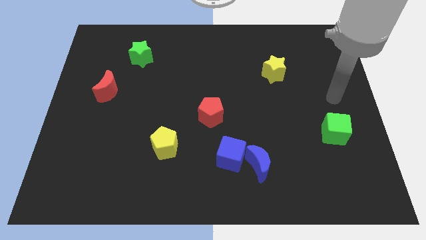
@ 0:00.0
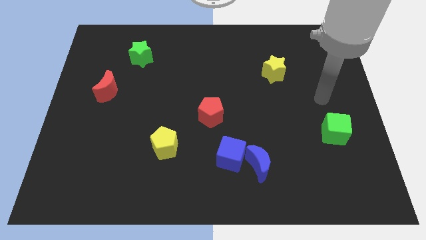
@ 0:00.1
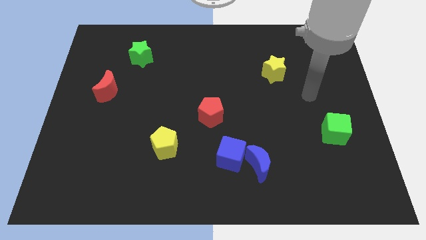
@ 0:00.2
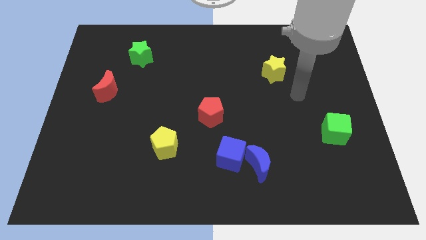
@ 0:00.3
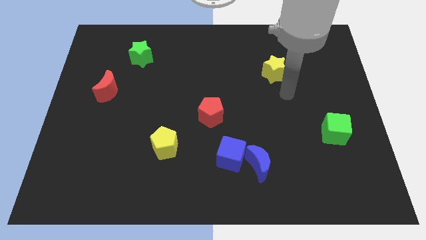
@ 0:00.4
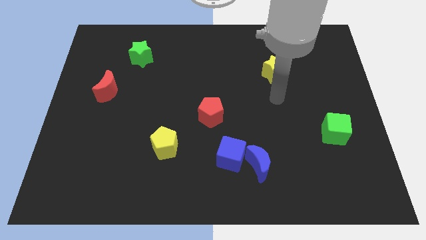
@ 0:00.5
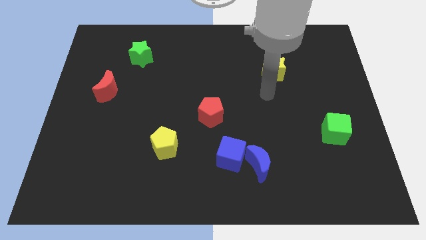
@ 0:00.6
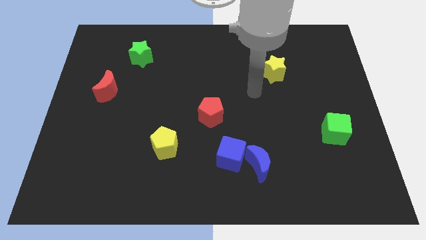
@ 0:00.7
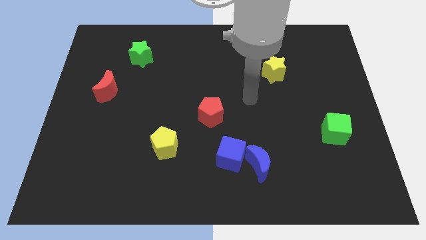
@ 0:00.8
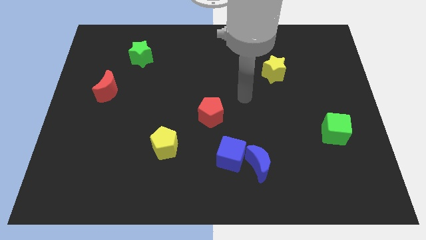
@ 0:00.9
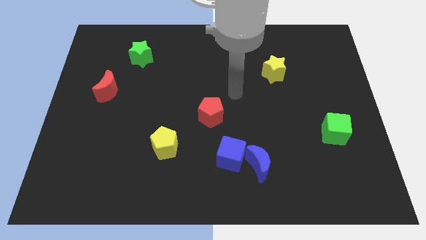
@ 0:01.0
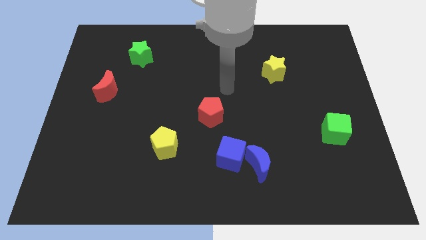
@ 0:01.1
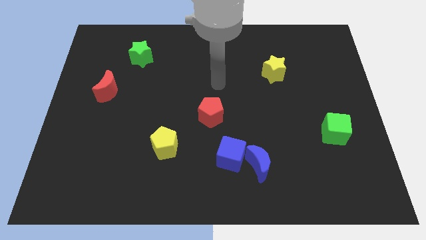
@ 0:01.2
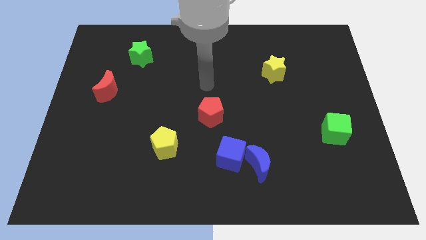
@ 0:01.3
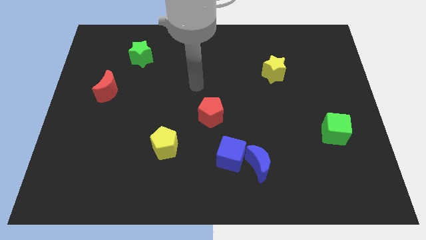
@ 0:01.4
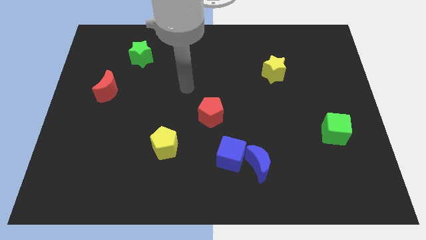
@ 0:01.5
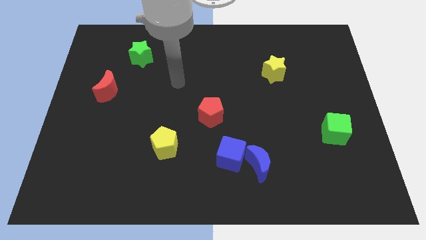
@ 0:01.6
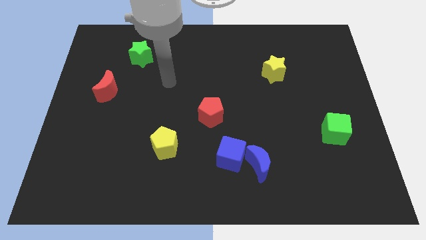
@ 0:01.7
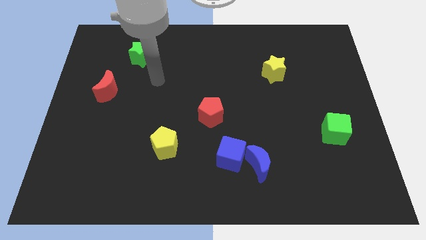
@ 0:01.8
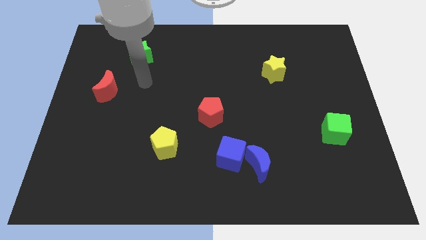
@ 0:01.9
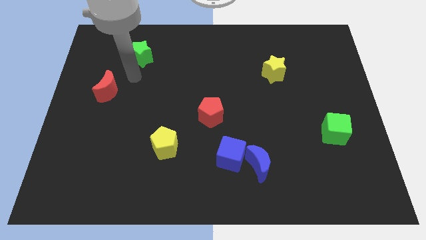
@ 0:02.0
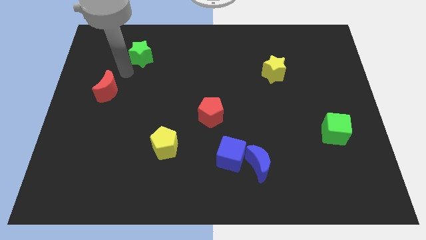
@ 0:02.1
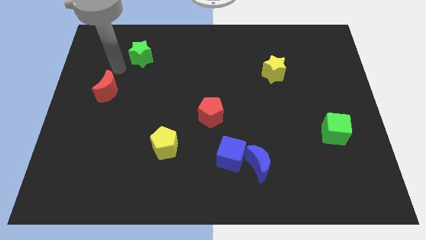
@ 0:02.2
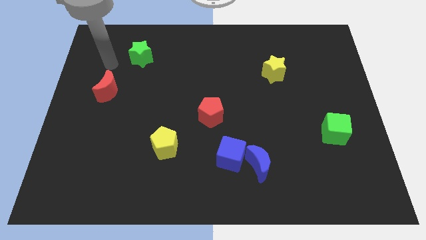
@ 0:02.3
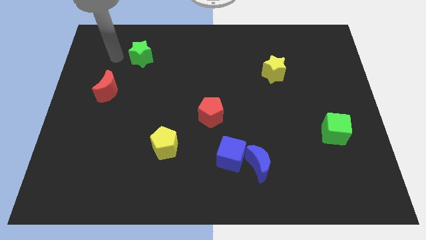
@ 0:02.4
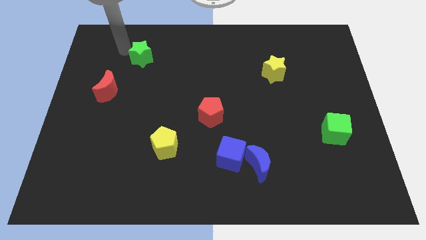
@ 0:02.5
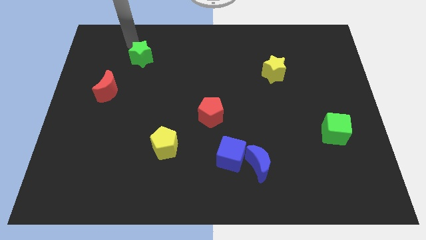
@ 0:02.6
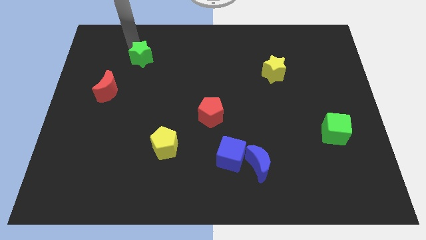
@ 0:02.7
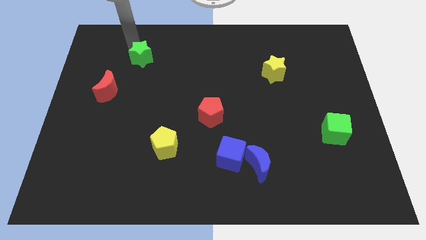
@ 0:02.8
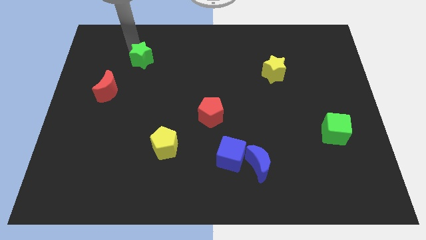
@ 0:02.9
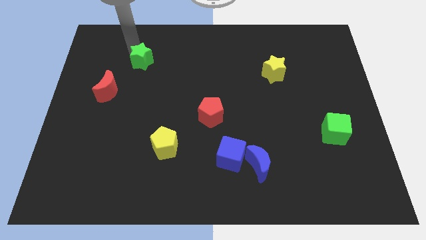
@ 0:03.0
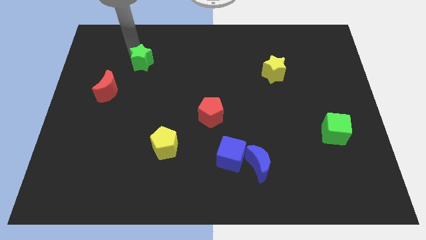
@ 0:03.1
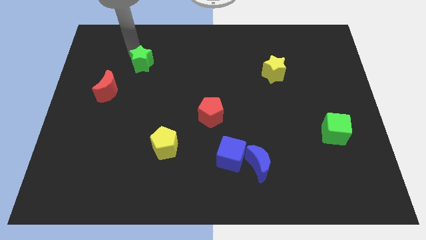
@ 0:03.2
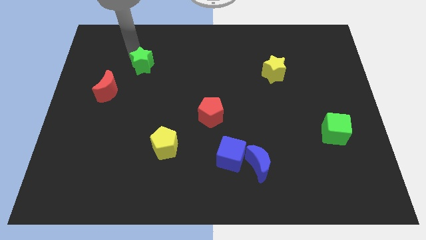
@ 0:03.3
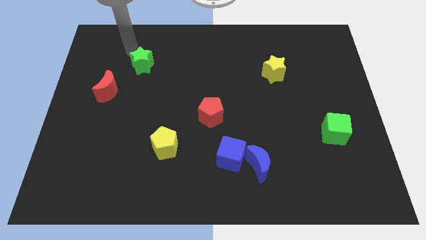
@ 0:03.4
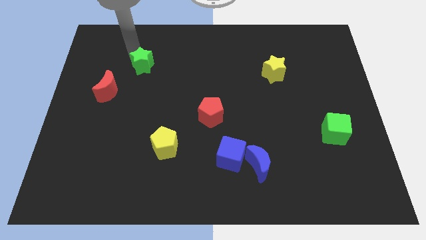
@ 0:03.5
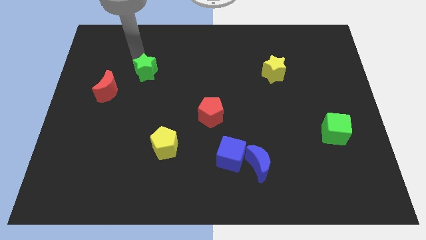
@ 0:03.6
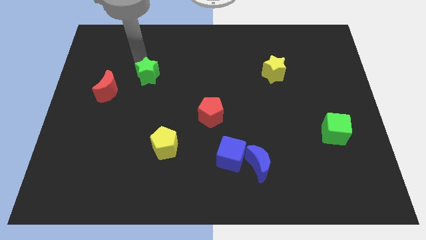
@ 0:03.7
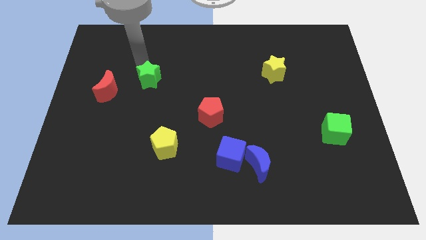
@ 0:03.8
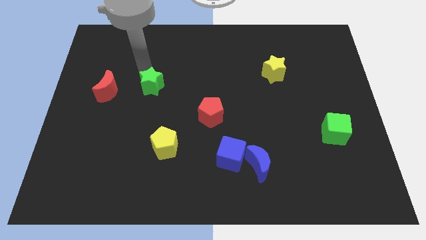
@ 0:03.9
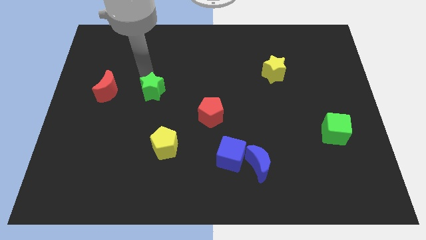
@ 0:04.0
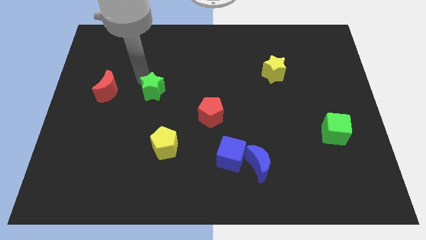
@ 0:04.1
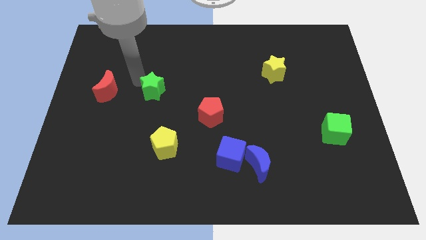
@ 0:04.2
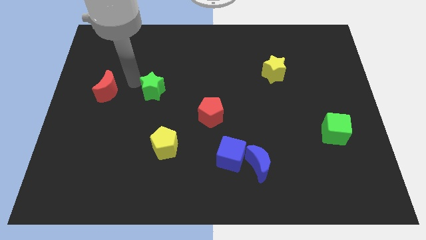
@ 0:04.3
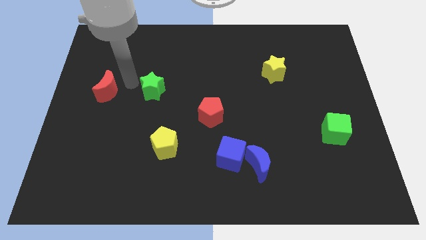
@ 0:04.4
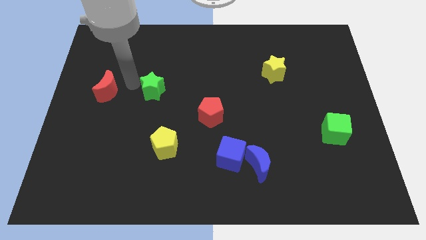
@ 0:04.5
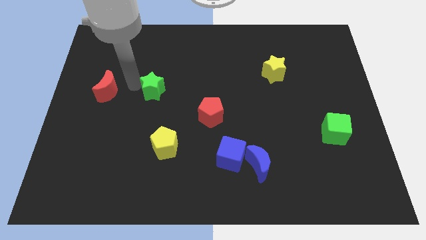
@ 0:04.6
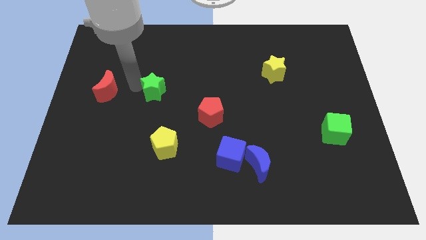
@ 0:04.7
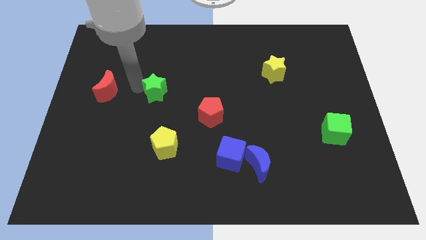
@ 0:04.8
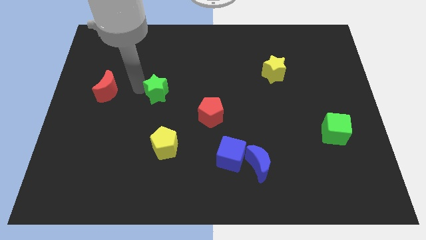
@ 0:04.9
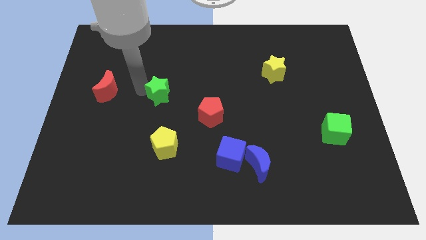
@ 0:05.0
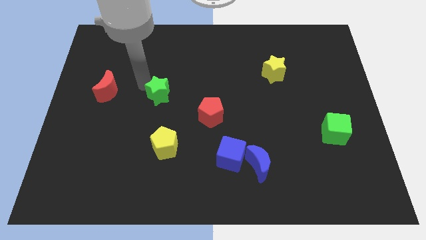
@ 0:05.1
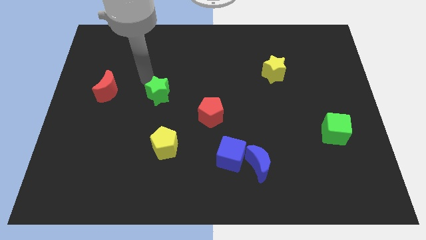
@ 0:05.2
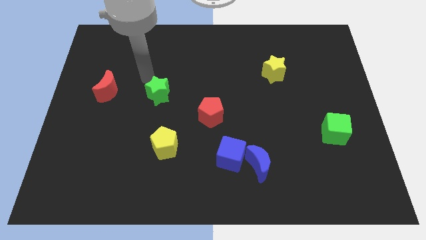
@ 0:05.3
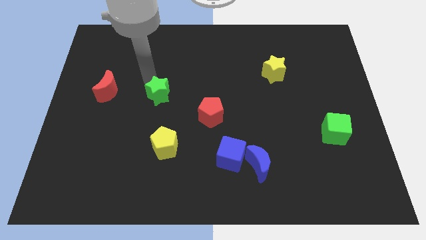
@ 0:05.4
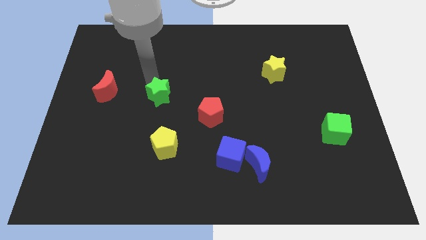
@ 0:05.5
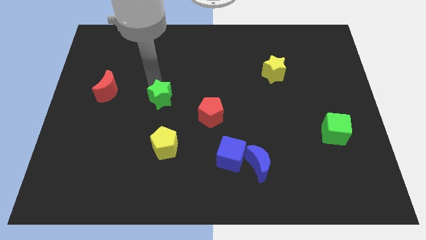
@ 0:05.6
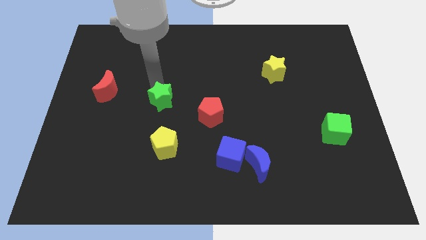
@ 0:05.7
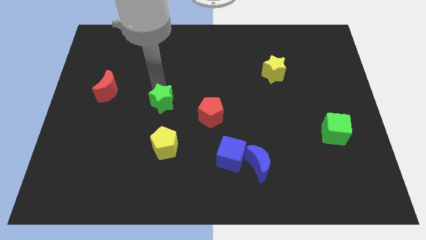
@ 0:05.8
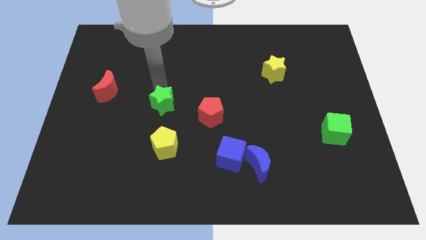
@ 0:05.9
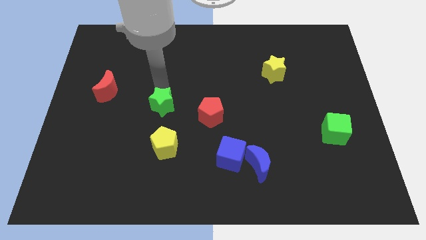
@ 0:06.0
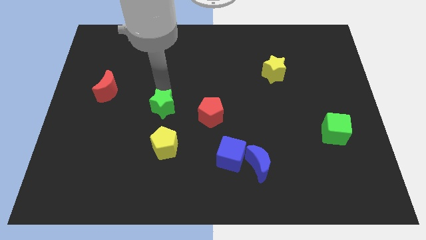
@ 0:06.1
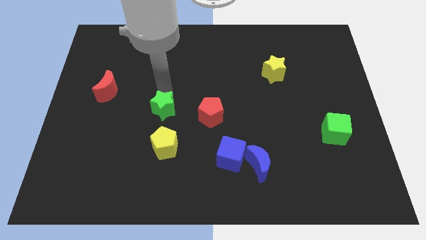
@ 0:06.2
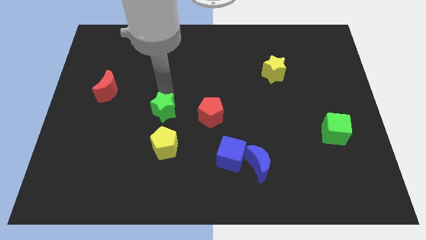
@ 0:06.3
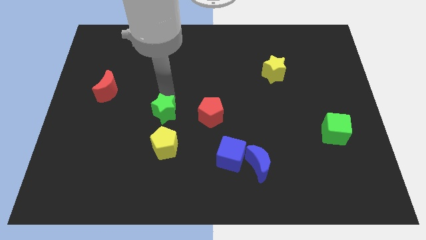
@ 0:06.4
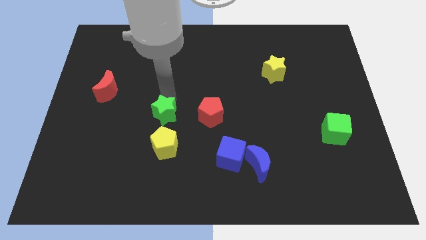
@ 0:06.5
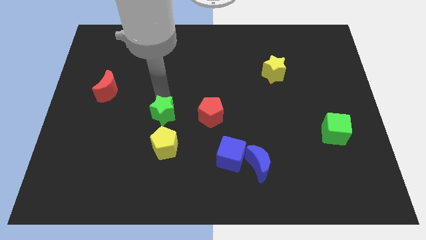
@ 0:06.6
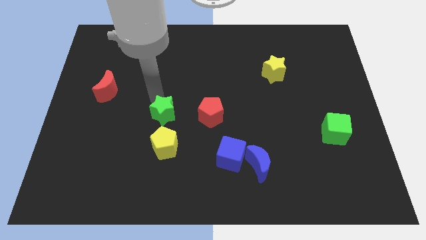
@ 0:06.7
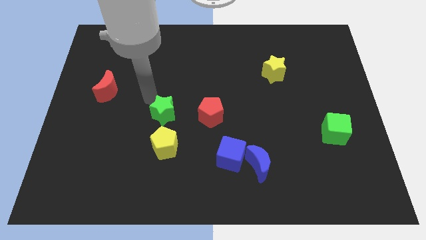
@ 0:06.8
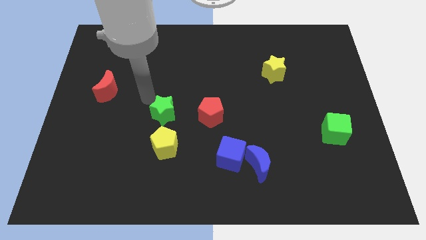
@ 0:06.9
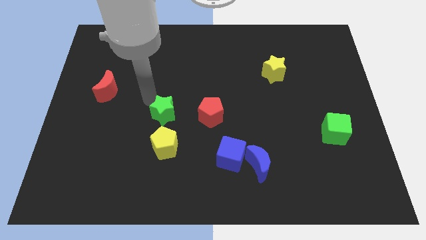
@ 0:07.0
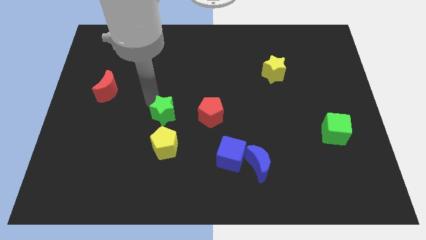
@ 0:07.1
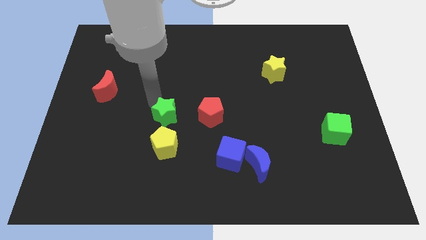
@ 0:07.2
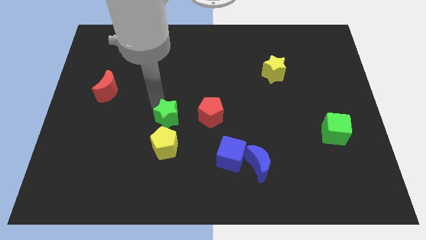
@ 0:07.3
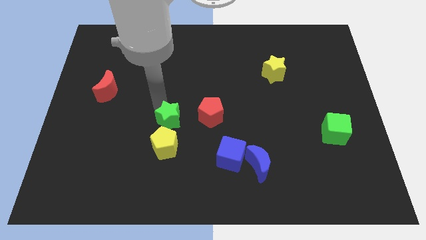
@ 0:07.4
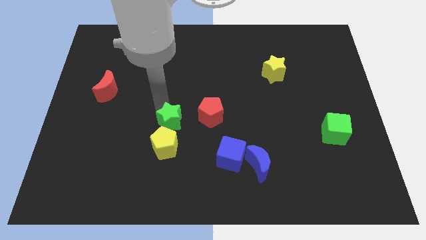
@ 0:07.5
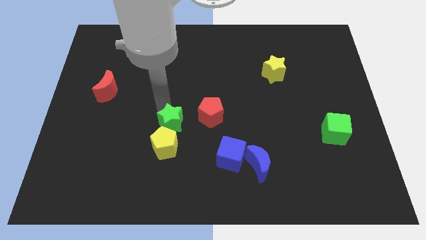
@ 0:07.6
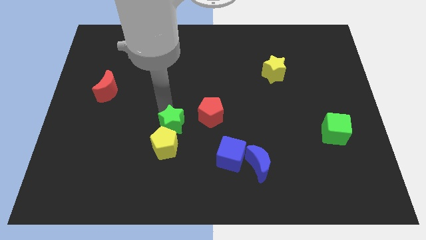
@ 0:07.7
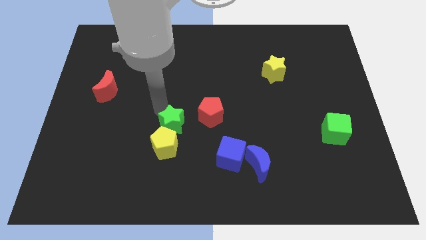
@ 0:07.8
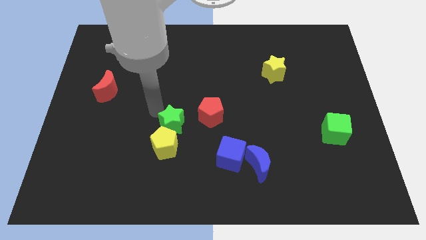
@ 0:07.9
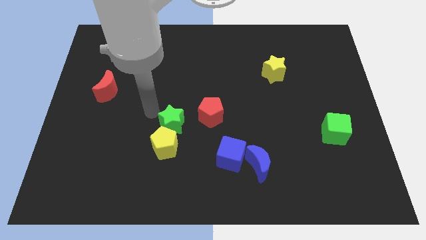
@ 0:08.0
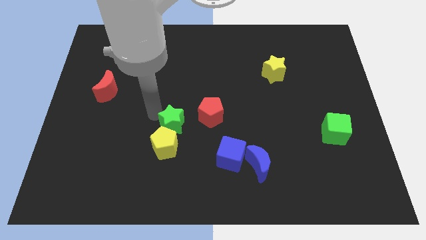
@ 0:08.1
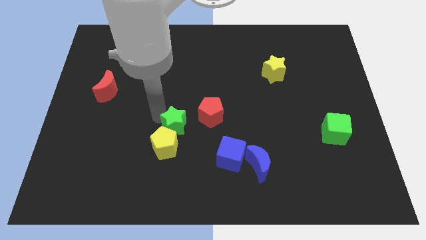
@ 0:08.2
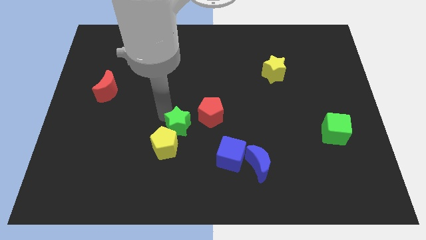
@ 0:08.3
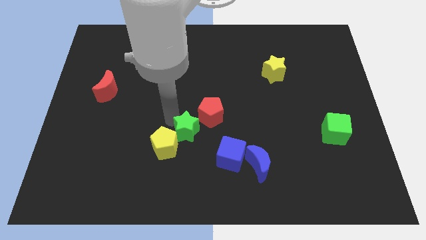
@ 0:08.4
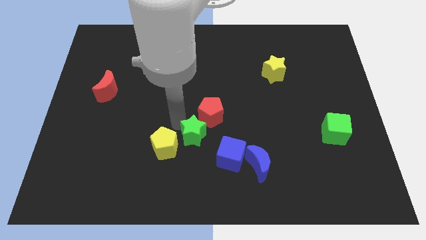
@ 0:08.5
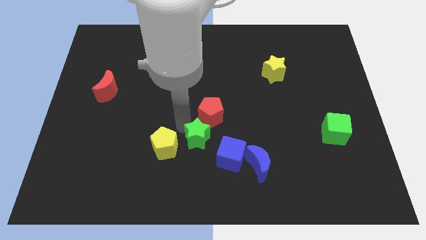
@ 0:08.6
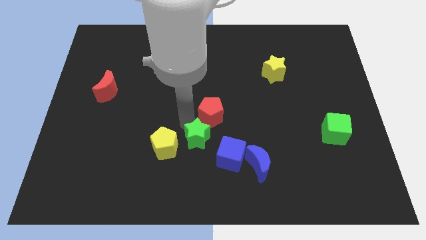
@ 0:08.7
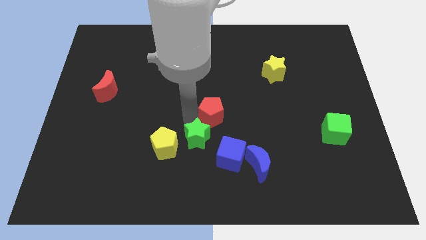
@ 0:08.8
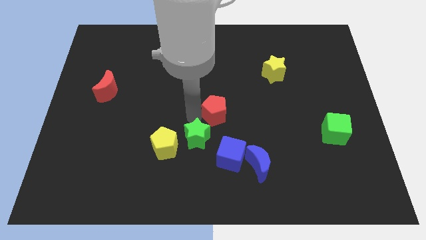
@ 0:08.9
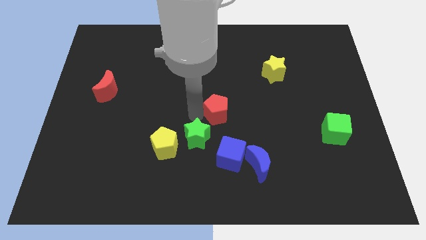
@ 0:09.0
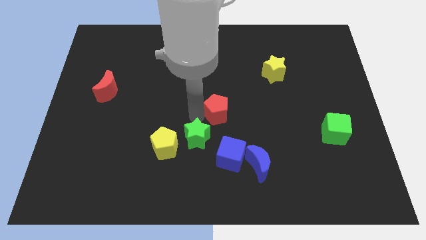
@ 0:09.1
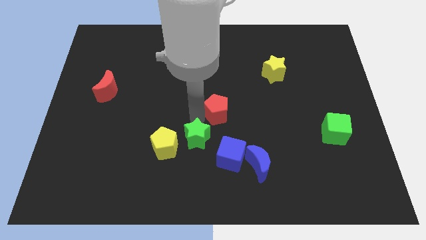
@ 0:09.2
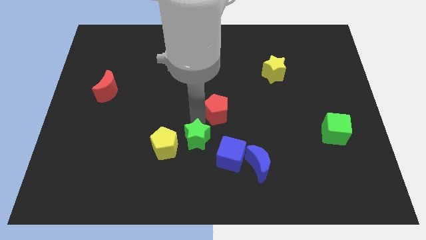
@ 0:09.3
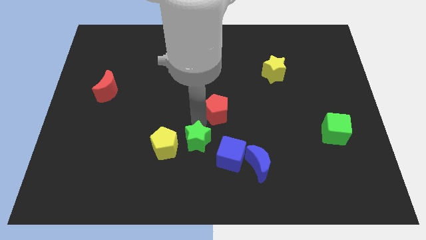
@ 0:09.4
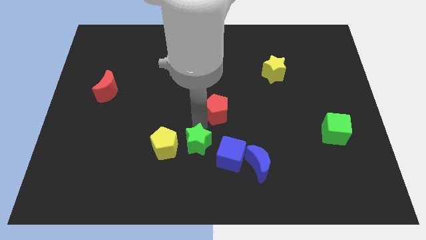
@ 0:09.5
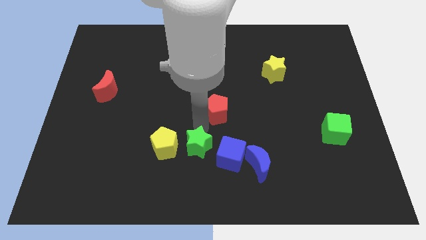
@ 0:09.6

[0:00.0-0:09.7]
push the green star just left of the blue moon
